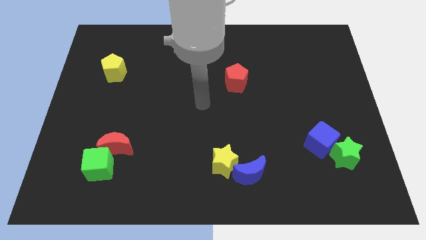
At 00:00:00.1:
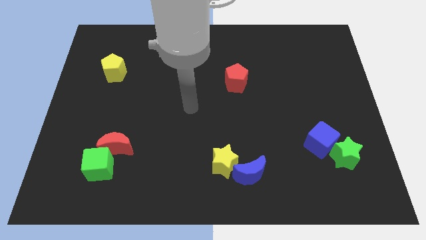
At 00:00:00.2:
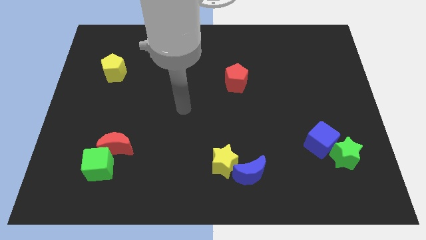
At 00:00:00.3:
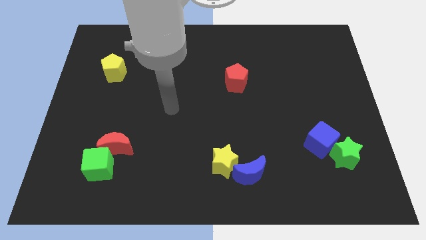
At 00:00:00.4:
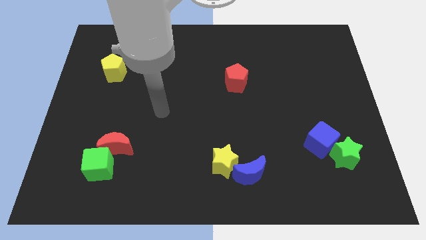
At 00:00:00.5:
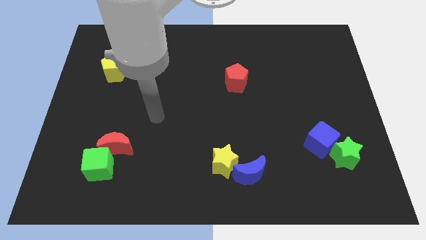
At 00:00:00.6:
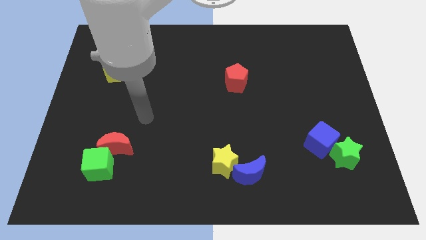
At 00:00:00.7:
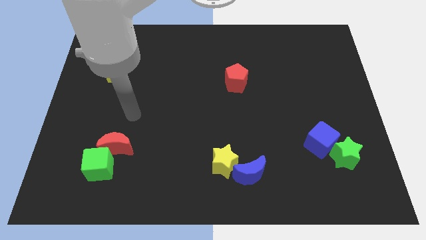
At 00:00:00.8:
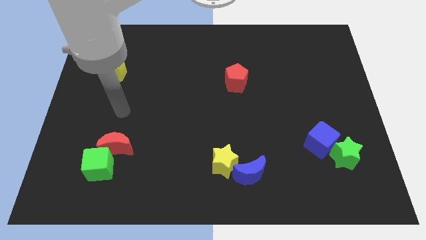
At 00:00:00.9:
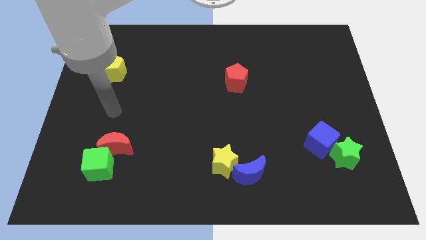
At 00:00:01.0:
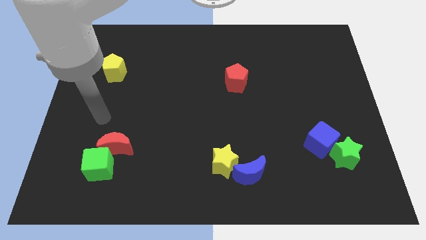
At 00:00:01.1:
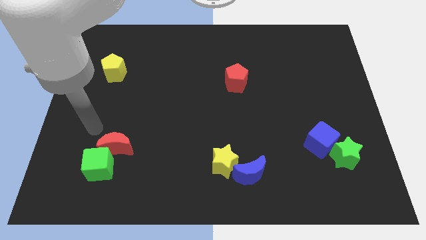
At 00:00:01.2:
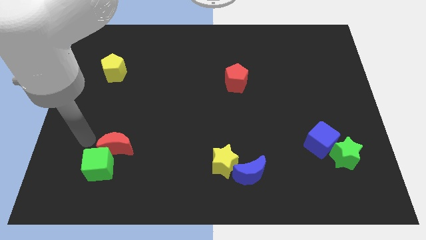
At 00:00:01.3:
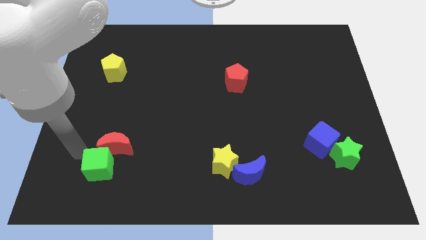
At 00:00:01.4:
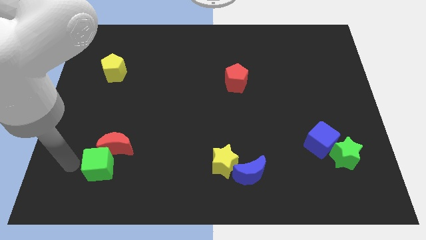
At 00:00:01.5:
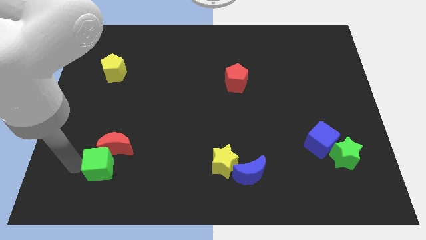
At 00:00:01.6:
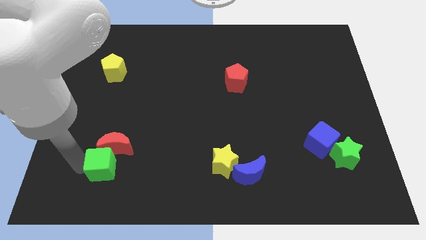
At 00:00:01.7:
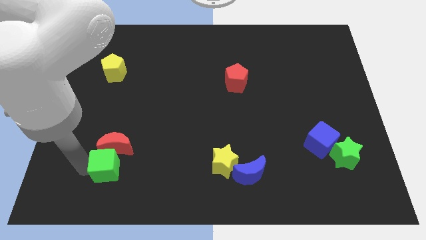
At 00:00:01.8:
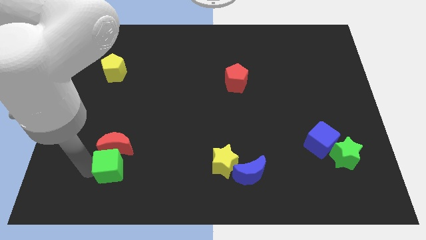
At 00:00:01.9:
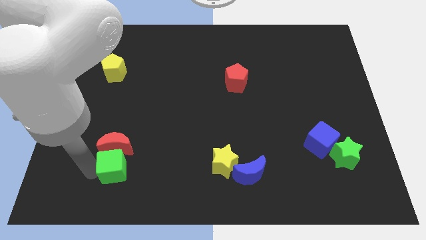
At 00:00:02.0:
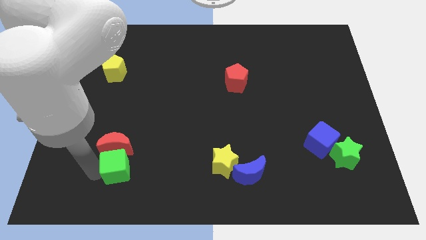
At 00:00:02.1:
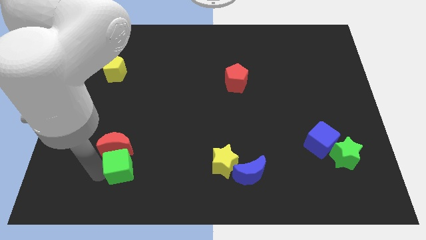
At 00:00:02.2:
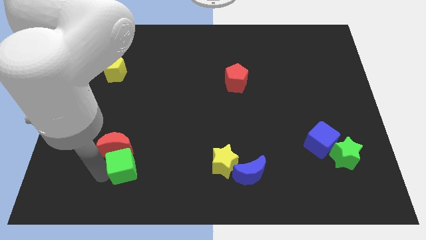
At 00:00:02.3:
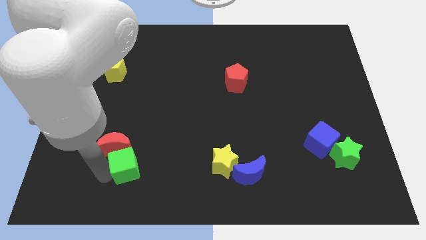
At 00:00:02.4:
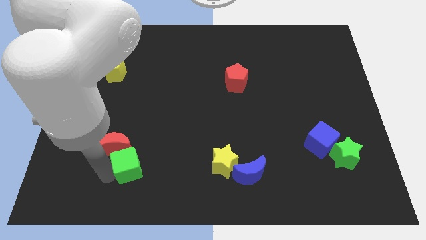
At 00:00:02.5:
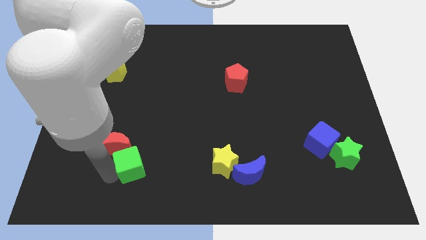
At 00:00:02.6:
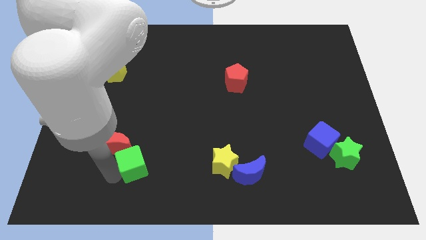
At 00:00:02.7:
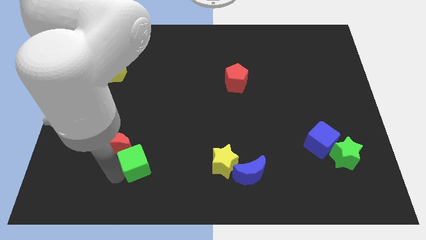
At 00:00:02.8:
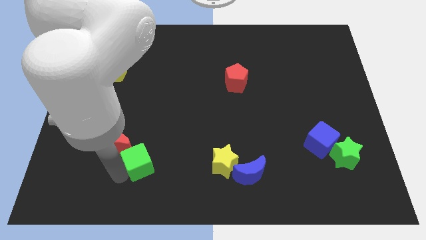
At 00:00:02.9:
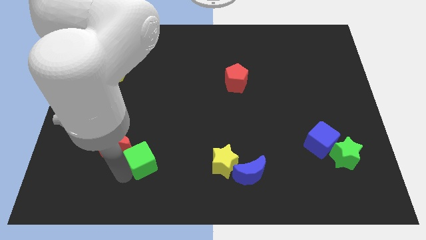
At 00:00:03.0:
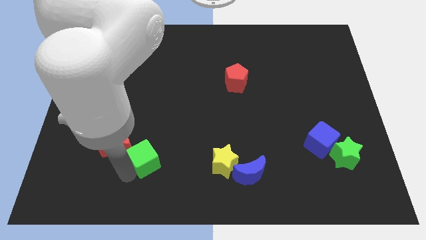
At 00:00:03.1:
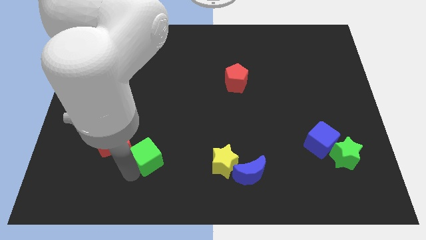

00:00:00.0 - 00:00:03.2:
move the green cube a bit upwards and then to the right

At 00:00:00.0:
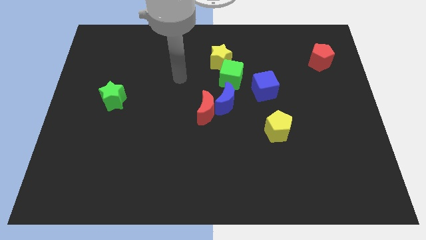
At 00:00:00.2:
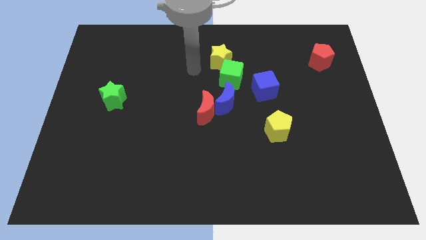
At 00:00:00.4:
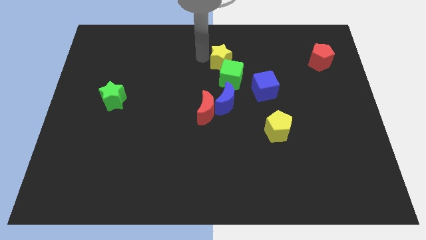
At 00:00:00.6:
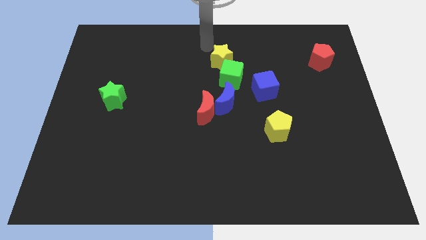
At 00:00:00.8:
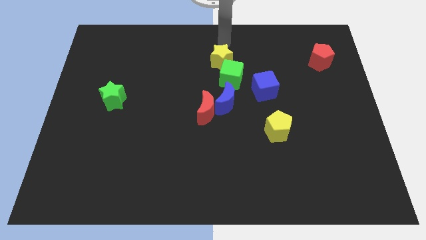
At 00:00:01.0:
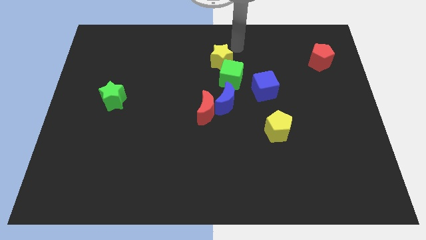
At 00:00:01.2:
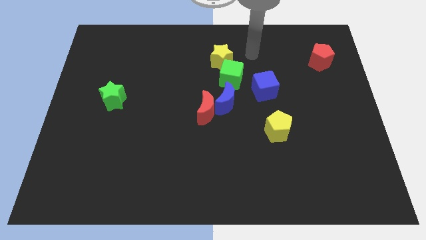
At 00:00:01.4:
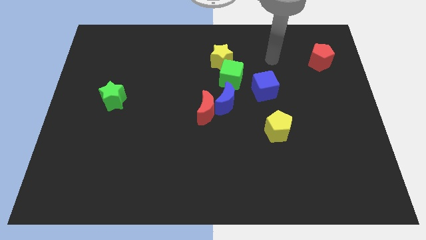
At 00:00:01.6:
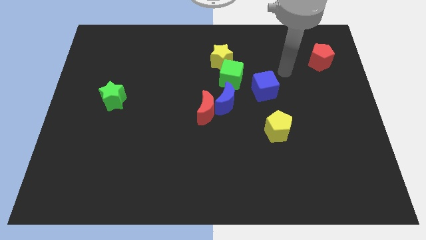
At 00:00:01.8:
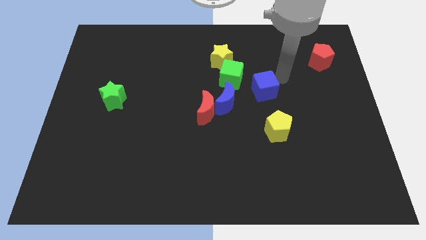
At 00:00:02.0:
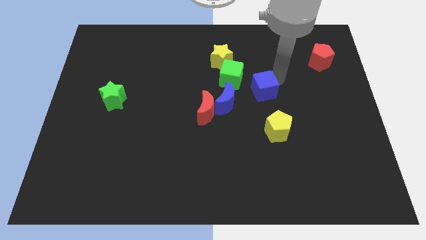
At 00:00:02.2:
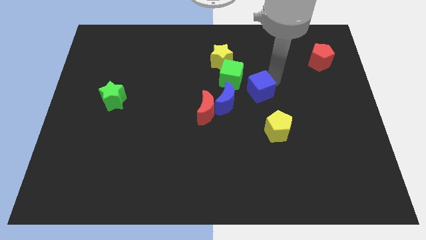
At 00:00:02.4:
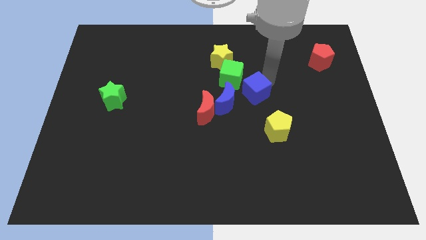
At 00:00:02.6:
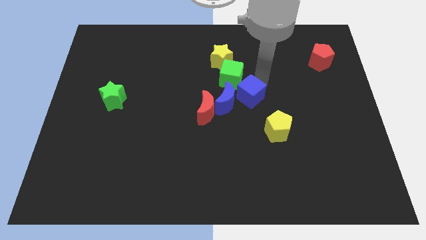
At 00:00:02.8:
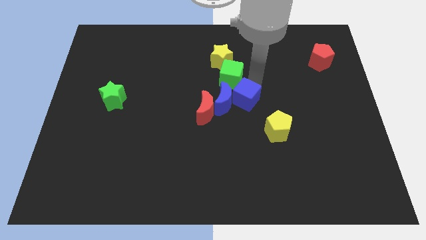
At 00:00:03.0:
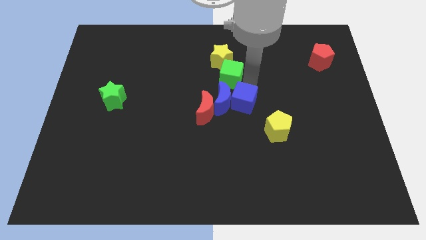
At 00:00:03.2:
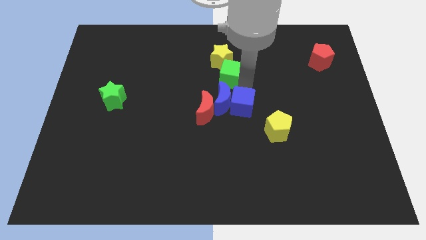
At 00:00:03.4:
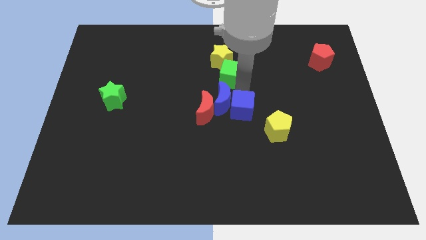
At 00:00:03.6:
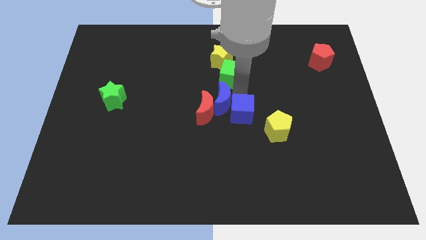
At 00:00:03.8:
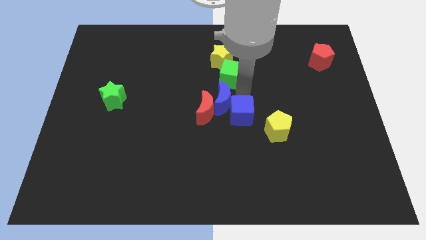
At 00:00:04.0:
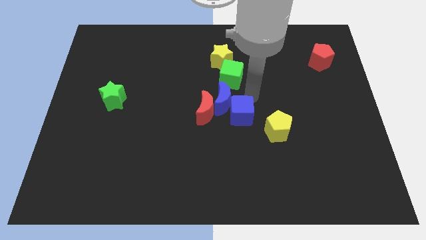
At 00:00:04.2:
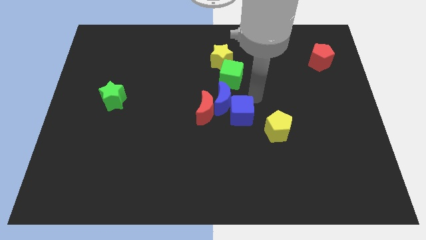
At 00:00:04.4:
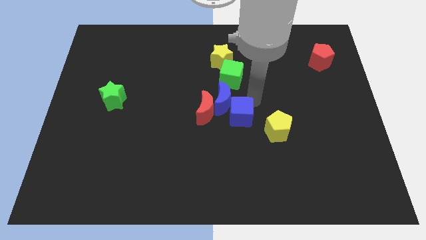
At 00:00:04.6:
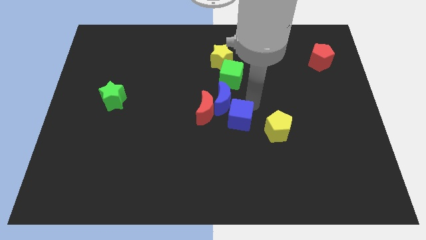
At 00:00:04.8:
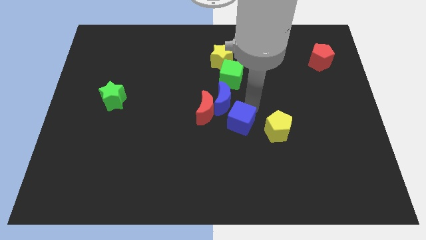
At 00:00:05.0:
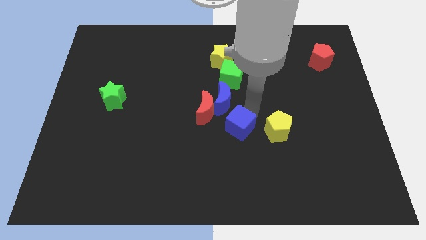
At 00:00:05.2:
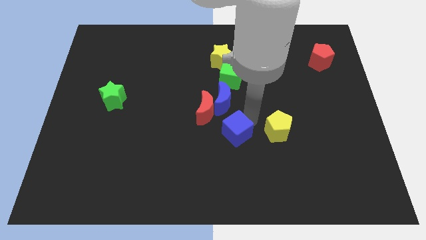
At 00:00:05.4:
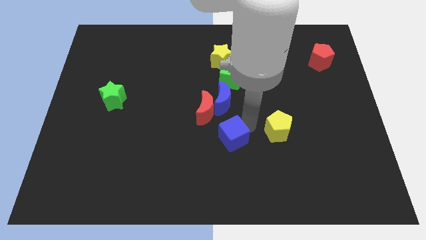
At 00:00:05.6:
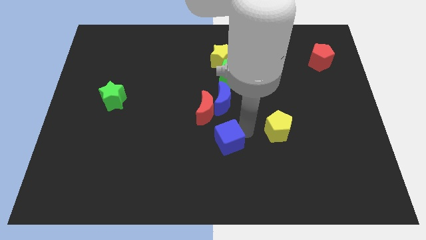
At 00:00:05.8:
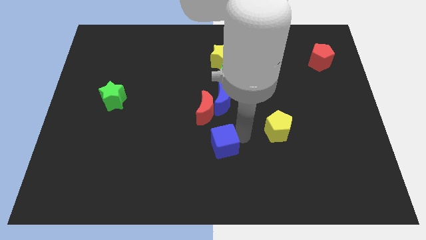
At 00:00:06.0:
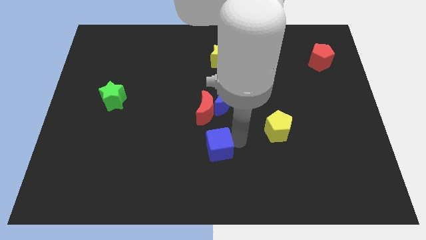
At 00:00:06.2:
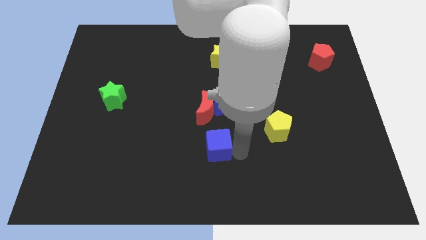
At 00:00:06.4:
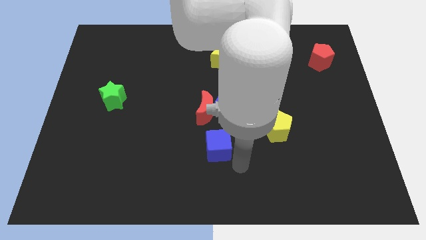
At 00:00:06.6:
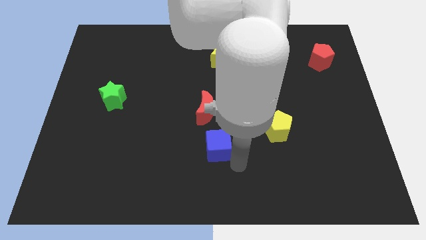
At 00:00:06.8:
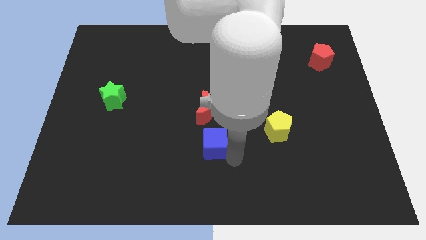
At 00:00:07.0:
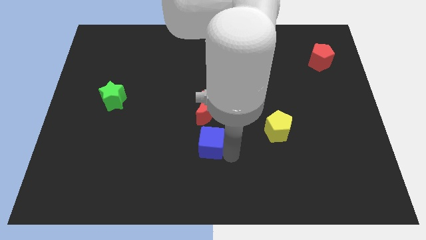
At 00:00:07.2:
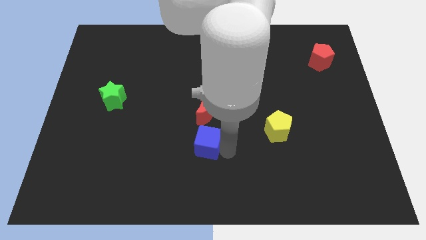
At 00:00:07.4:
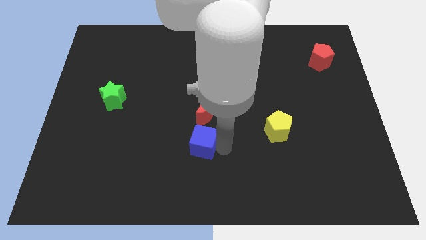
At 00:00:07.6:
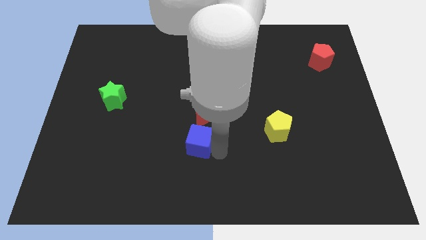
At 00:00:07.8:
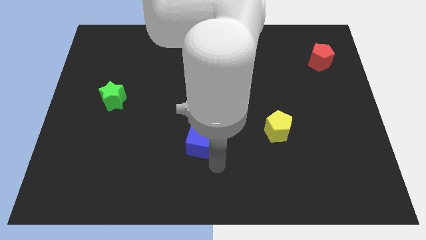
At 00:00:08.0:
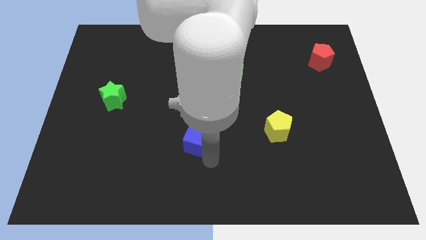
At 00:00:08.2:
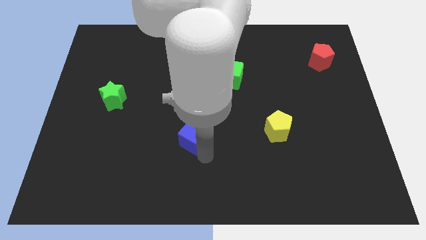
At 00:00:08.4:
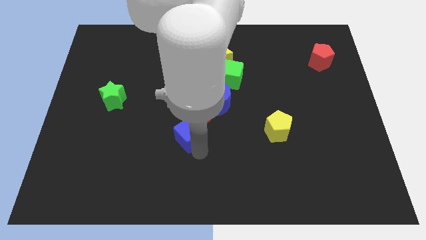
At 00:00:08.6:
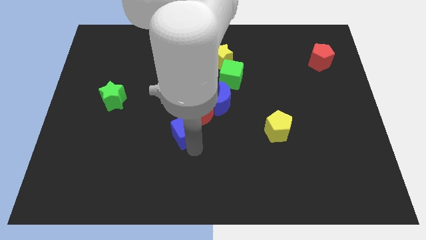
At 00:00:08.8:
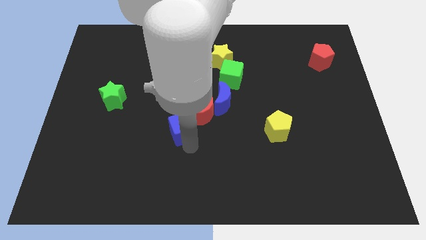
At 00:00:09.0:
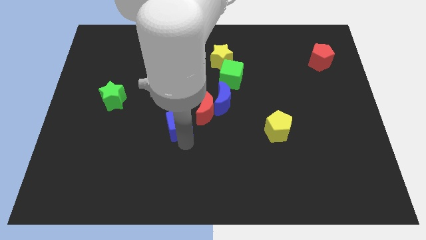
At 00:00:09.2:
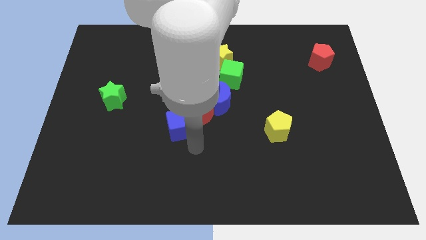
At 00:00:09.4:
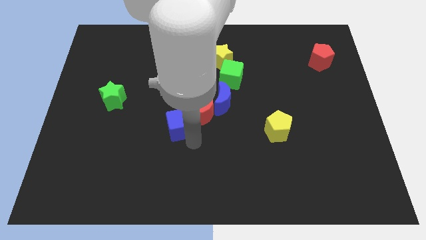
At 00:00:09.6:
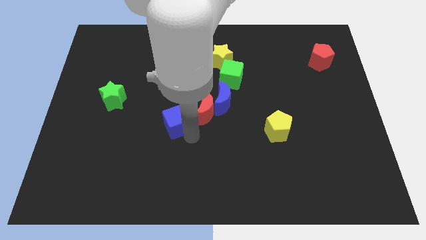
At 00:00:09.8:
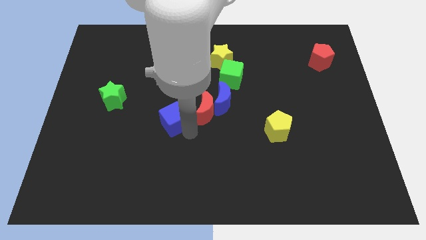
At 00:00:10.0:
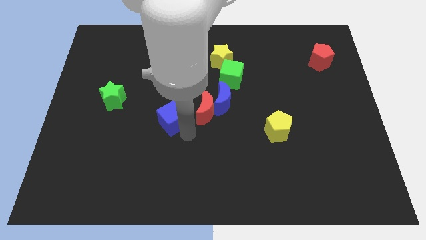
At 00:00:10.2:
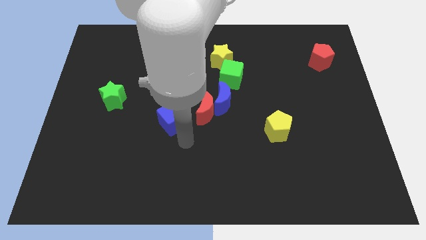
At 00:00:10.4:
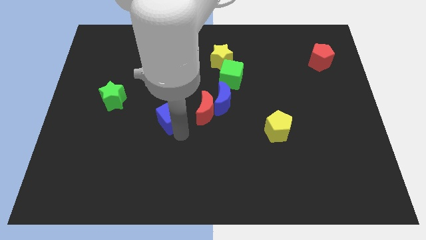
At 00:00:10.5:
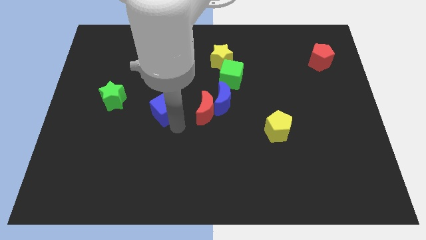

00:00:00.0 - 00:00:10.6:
slide the blue cube to the left
